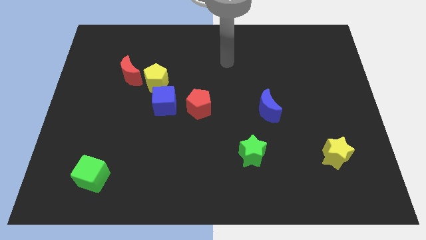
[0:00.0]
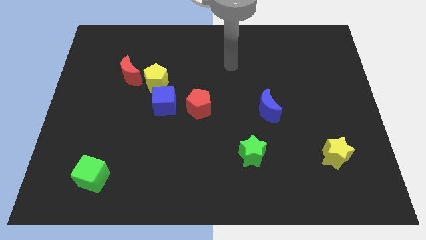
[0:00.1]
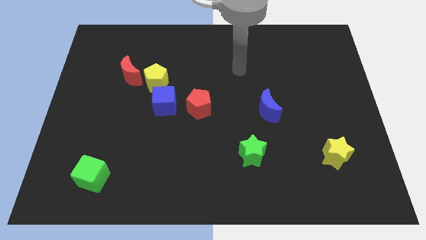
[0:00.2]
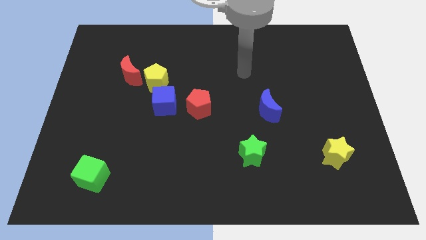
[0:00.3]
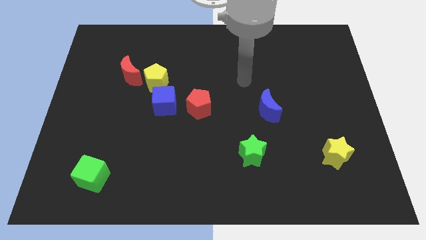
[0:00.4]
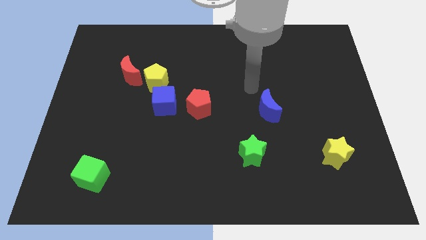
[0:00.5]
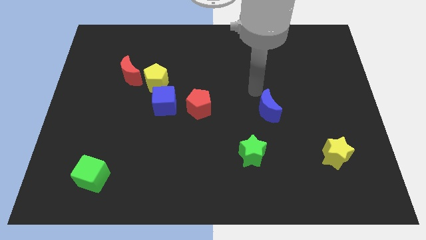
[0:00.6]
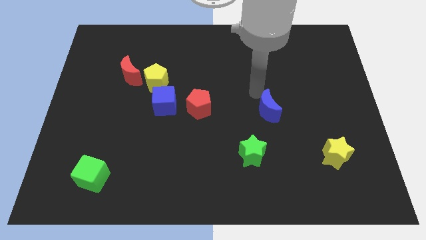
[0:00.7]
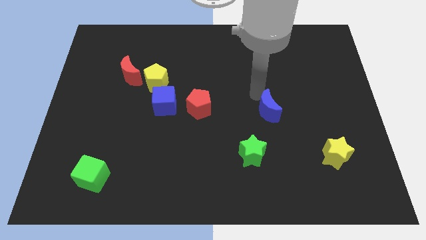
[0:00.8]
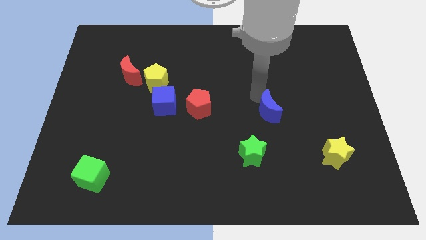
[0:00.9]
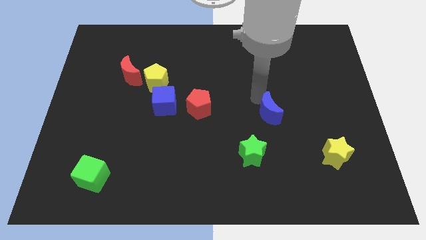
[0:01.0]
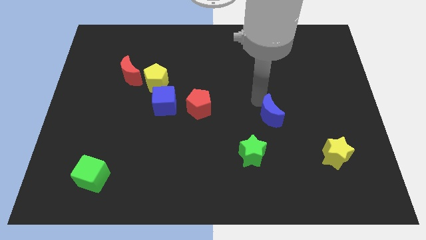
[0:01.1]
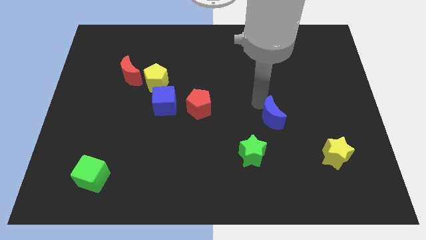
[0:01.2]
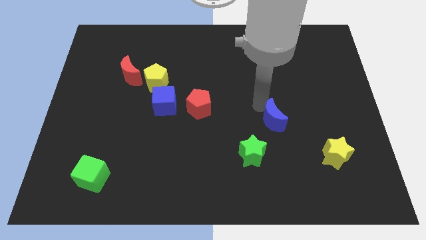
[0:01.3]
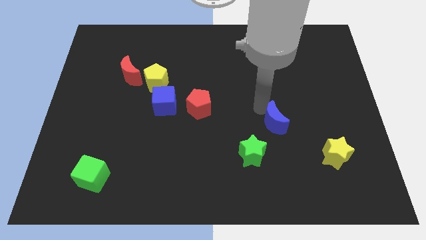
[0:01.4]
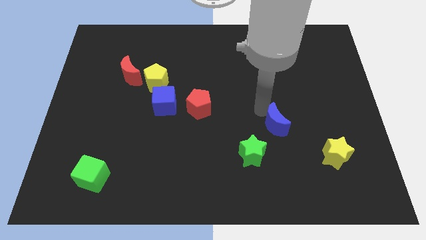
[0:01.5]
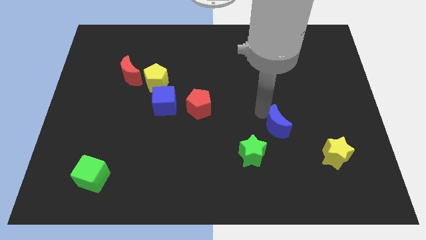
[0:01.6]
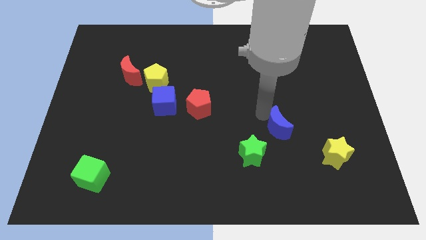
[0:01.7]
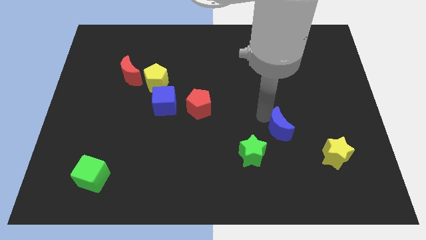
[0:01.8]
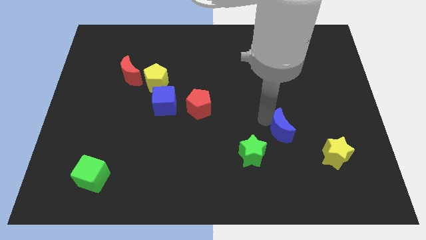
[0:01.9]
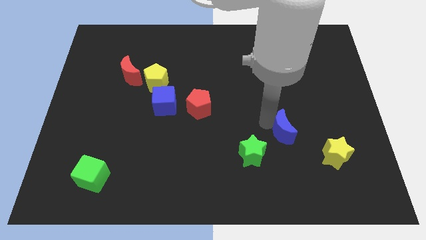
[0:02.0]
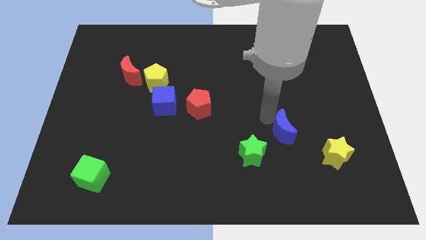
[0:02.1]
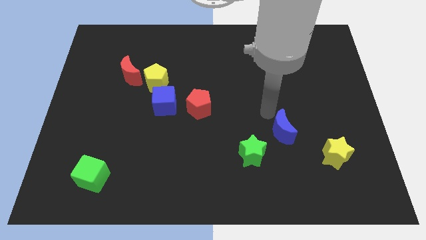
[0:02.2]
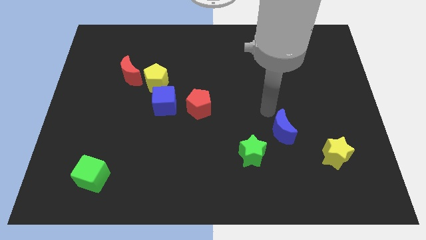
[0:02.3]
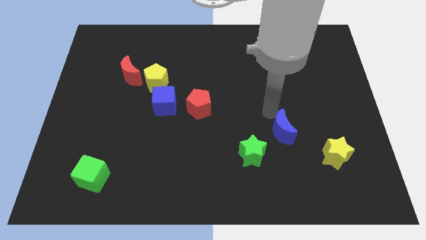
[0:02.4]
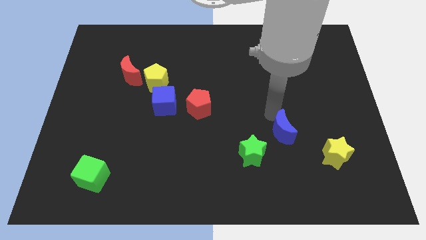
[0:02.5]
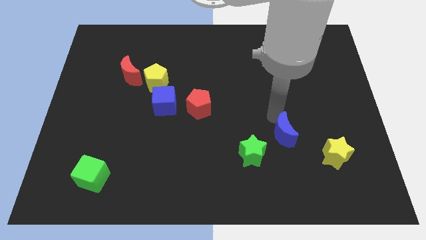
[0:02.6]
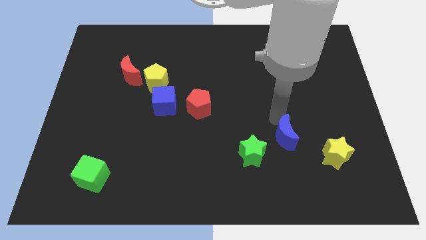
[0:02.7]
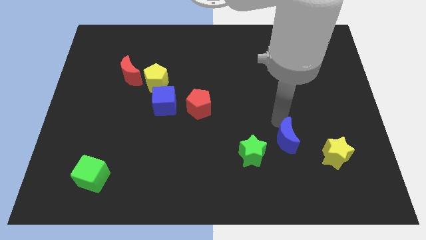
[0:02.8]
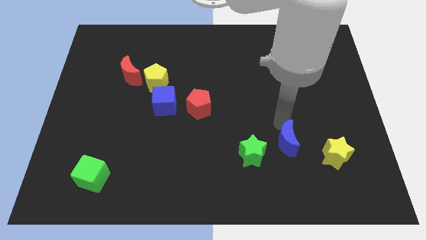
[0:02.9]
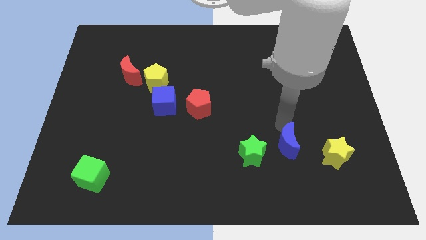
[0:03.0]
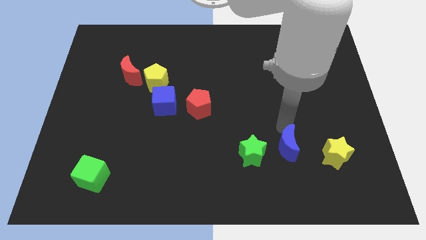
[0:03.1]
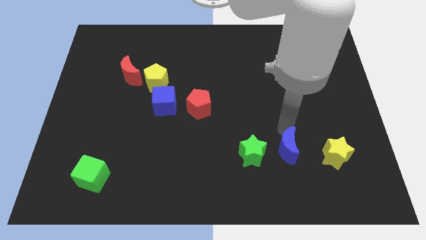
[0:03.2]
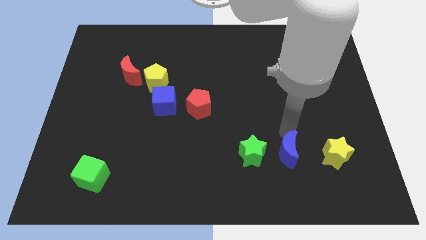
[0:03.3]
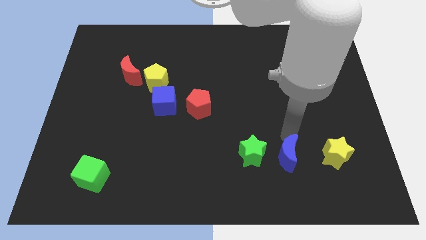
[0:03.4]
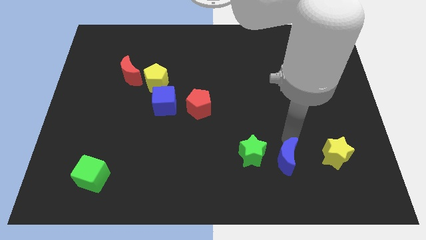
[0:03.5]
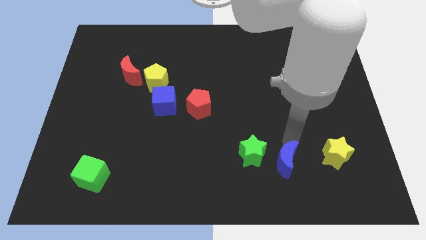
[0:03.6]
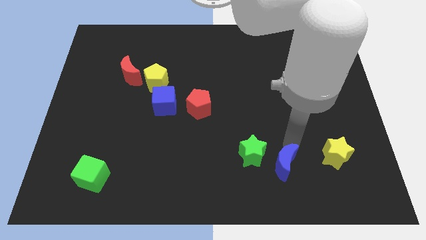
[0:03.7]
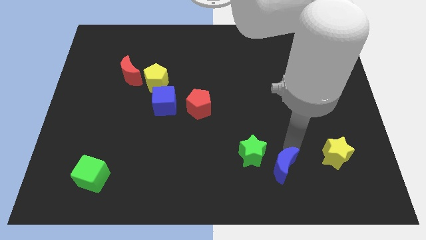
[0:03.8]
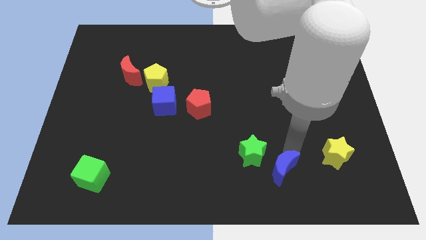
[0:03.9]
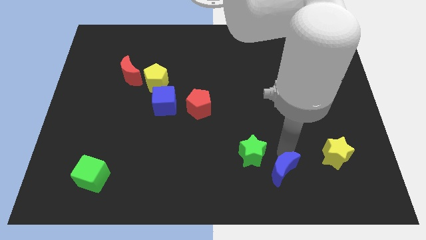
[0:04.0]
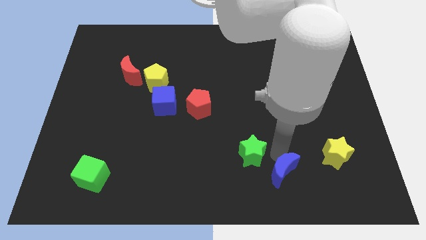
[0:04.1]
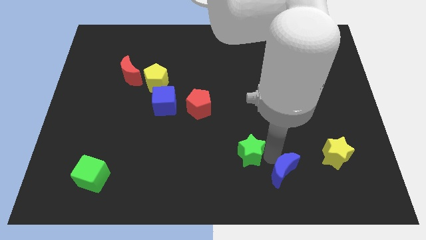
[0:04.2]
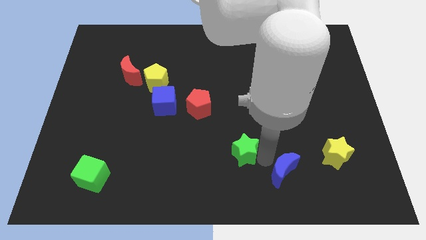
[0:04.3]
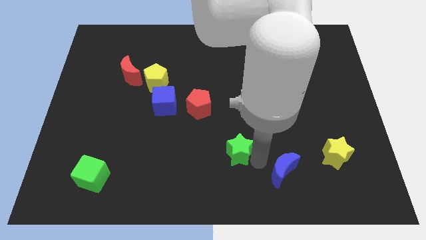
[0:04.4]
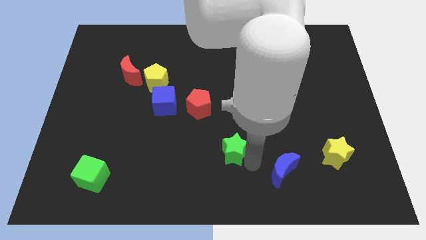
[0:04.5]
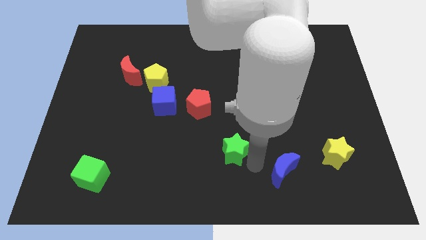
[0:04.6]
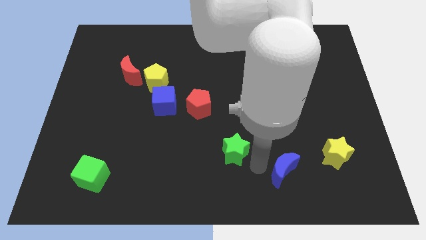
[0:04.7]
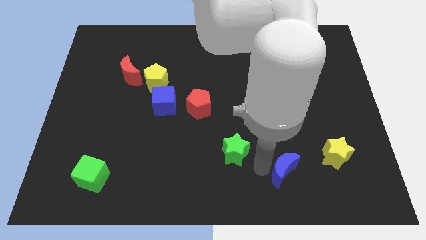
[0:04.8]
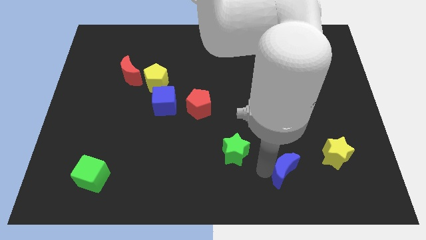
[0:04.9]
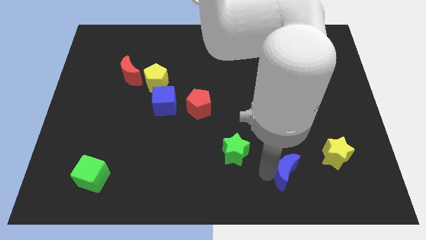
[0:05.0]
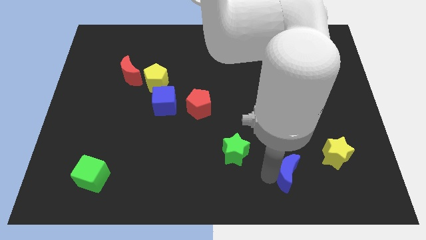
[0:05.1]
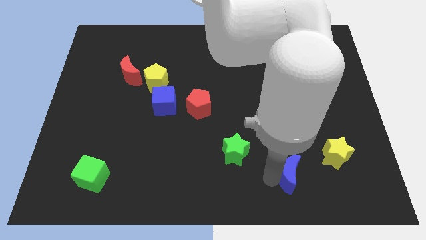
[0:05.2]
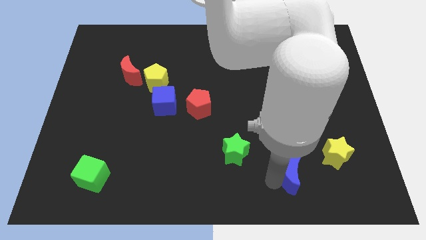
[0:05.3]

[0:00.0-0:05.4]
put the blue moon to the bottom left of the yellow star

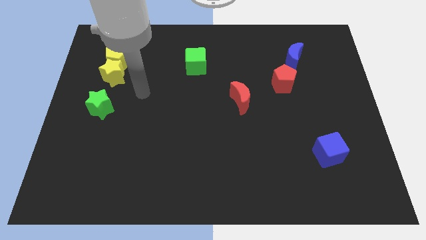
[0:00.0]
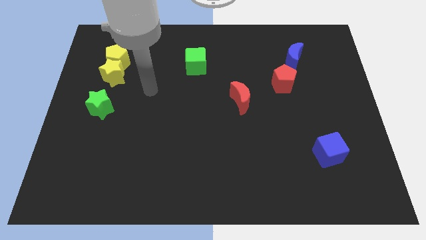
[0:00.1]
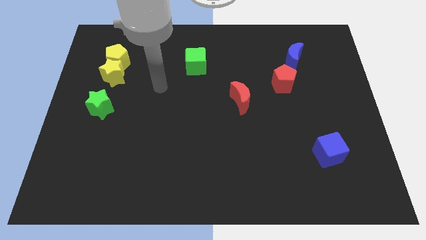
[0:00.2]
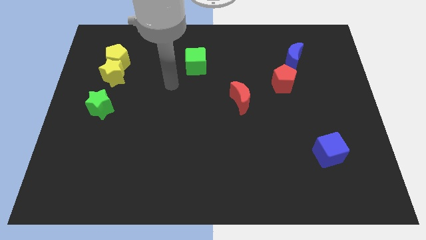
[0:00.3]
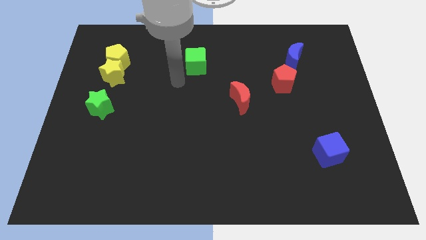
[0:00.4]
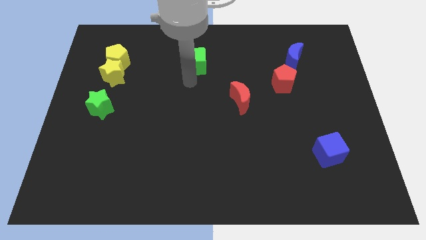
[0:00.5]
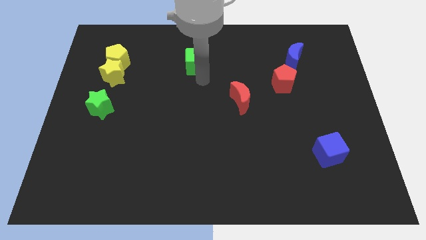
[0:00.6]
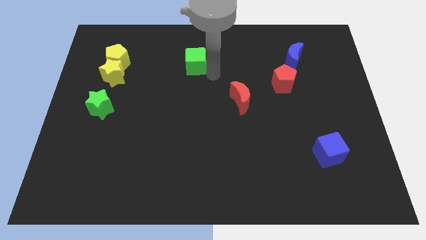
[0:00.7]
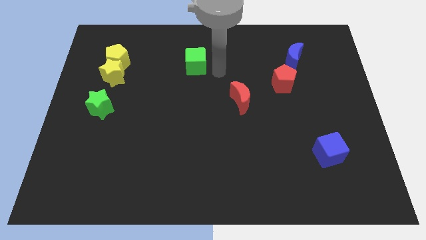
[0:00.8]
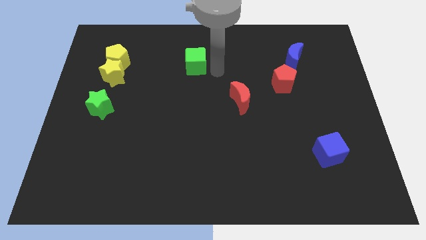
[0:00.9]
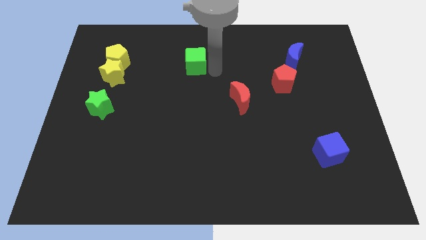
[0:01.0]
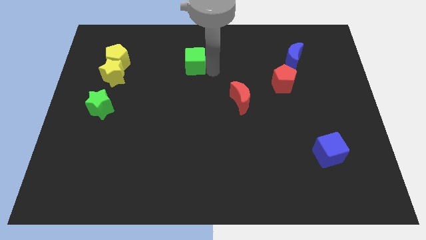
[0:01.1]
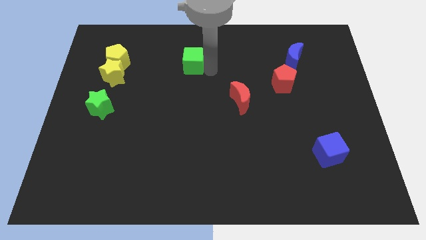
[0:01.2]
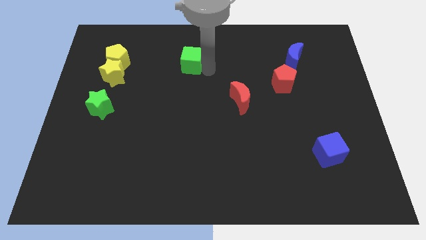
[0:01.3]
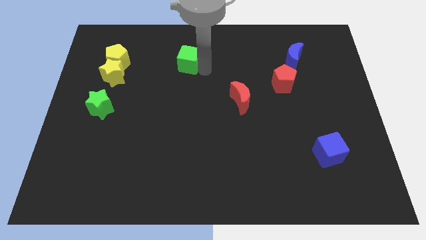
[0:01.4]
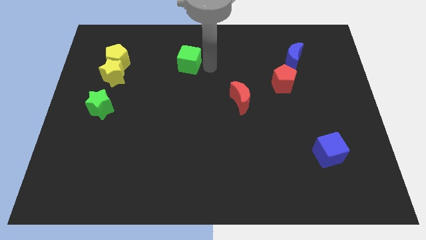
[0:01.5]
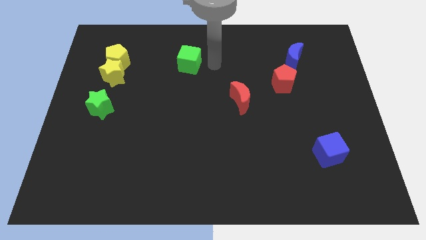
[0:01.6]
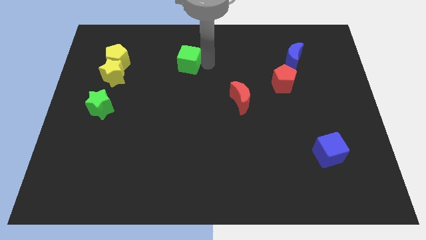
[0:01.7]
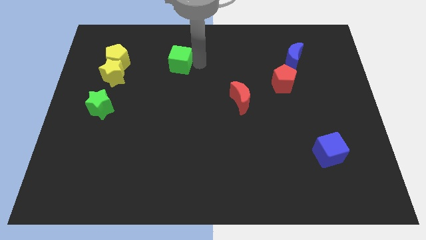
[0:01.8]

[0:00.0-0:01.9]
push the green cube to the right side of the yellow pentagon

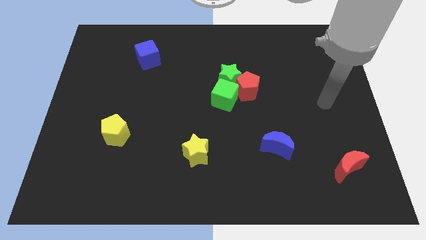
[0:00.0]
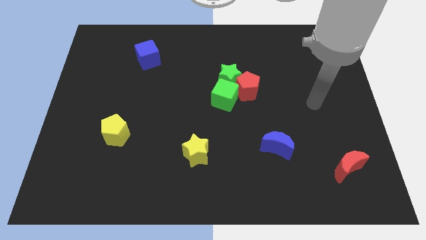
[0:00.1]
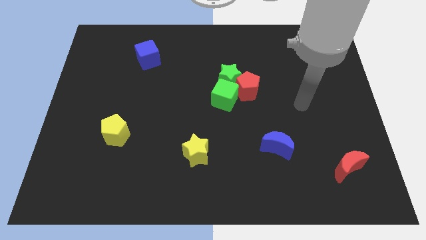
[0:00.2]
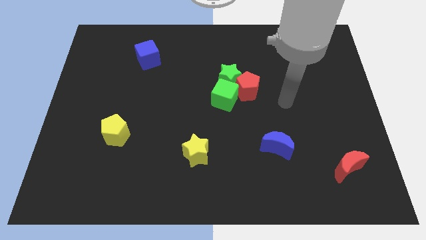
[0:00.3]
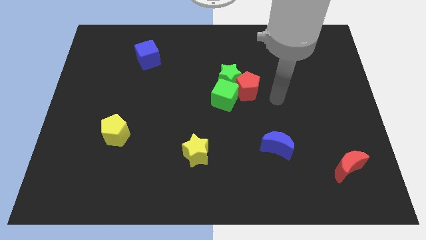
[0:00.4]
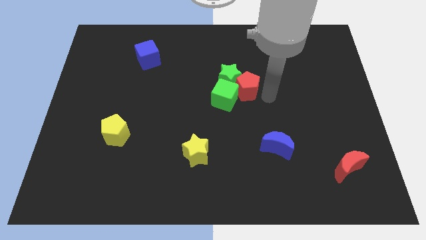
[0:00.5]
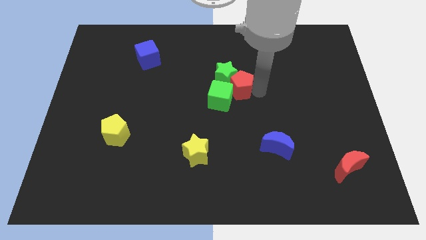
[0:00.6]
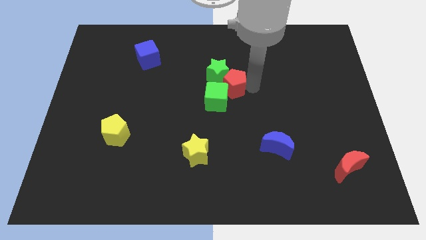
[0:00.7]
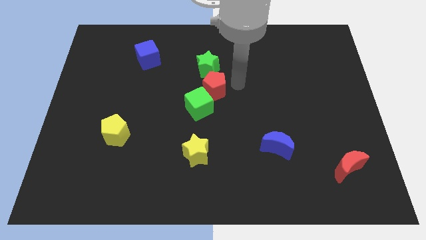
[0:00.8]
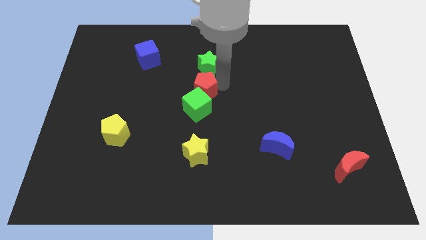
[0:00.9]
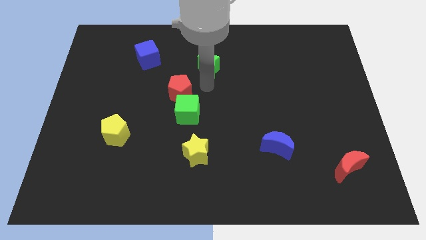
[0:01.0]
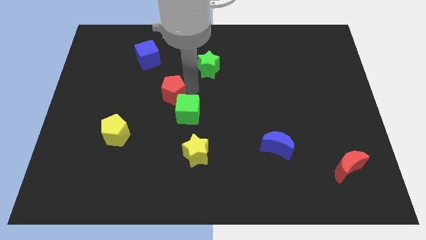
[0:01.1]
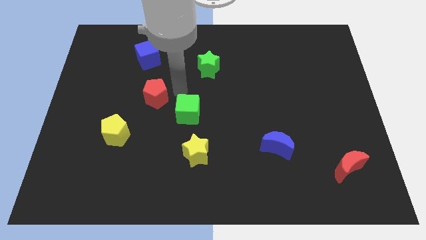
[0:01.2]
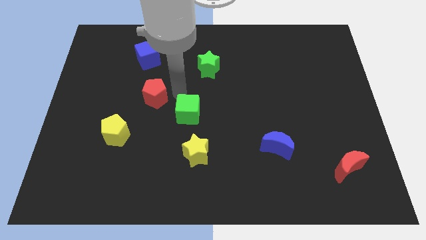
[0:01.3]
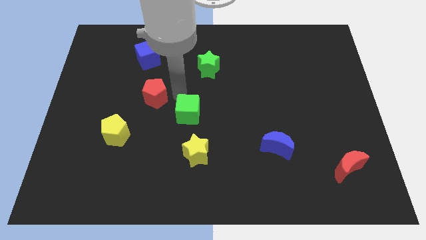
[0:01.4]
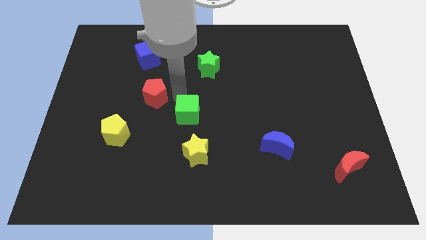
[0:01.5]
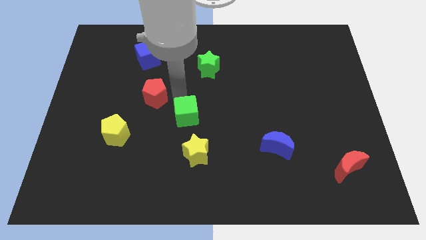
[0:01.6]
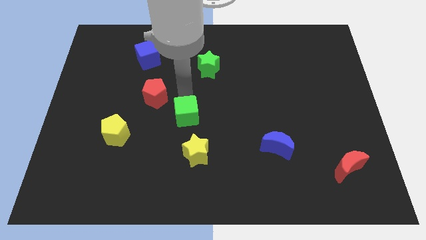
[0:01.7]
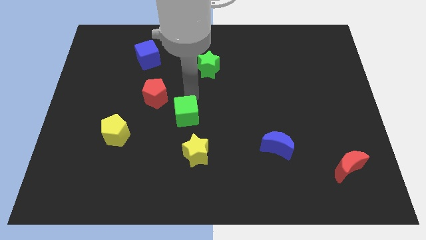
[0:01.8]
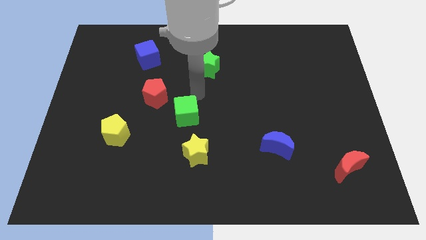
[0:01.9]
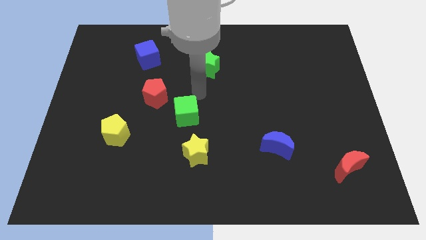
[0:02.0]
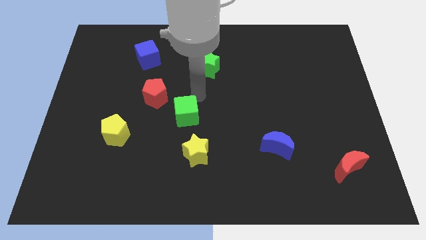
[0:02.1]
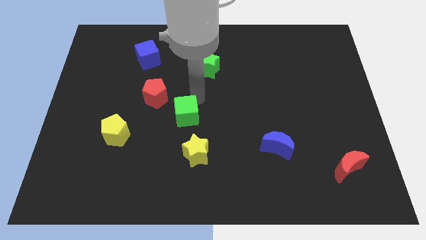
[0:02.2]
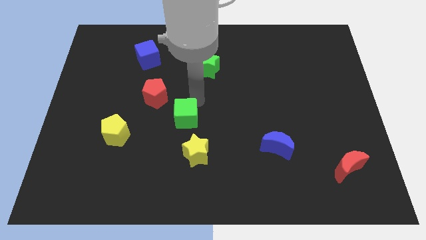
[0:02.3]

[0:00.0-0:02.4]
put the green cube to the top left side of the yellow star
